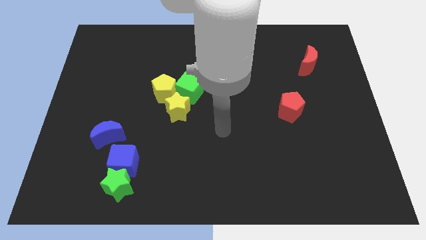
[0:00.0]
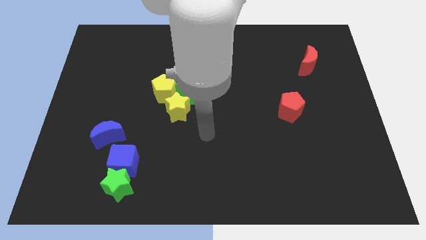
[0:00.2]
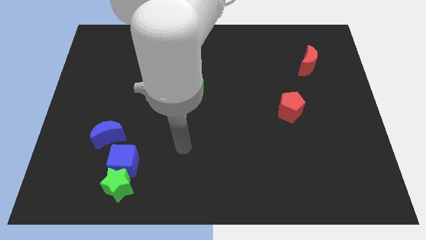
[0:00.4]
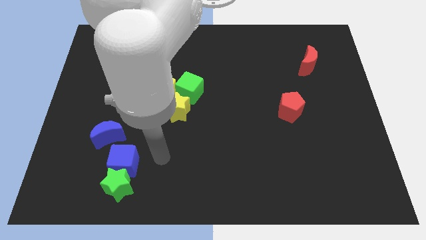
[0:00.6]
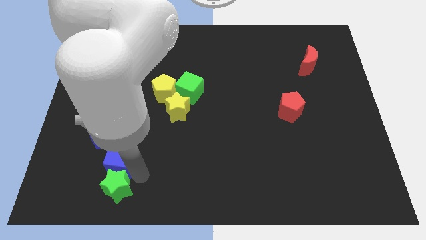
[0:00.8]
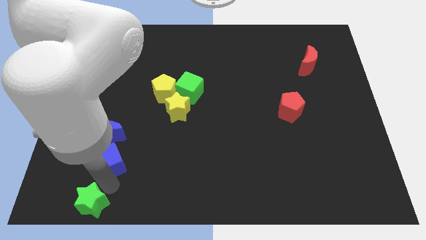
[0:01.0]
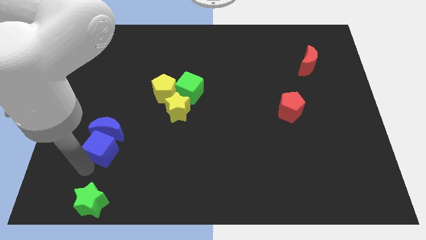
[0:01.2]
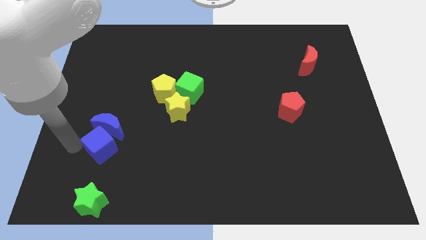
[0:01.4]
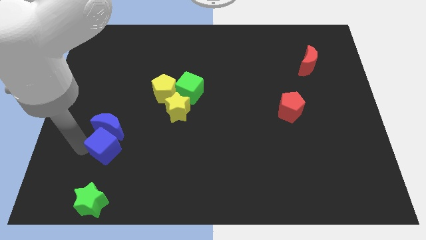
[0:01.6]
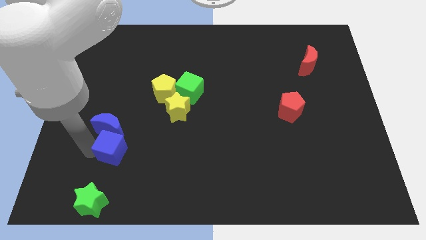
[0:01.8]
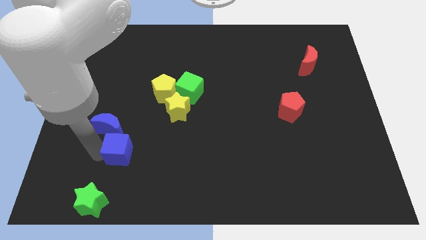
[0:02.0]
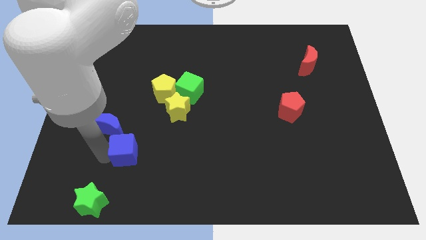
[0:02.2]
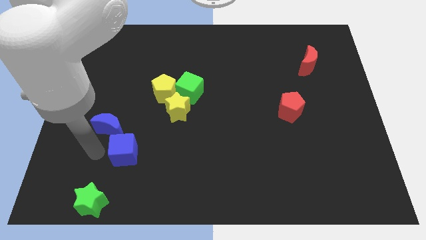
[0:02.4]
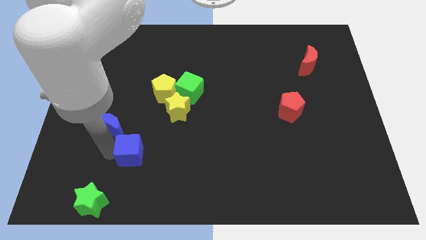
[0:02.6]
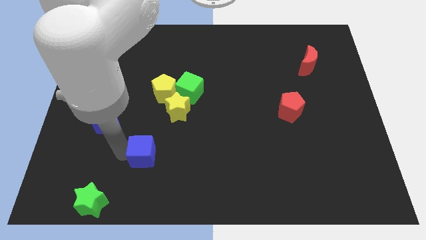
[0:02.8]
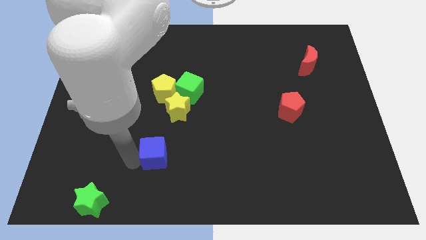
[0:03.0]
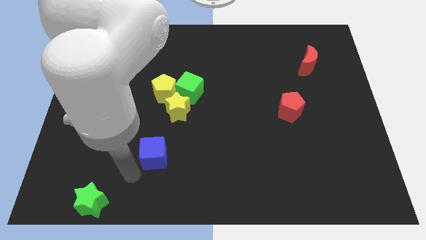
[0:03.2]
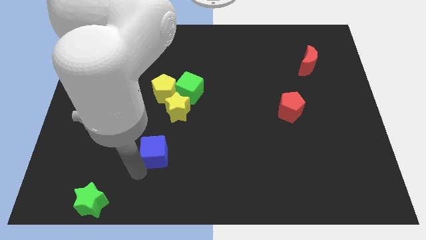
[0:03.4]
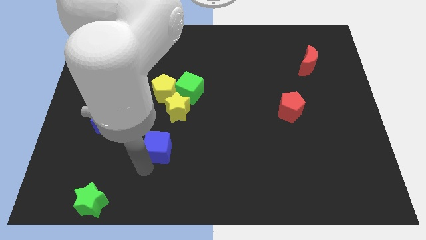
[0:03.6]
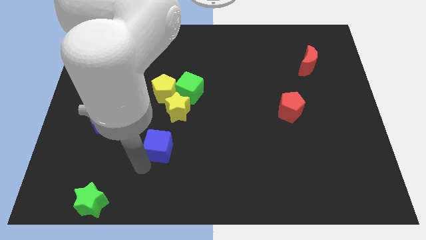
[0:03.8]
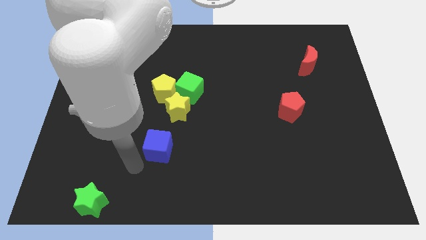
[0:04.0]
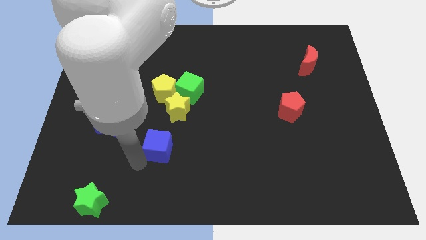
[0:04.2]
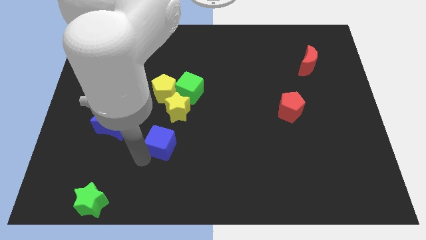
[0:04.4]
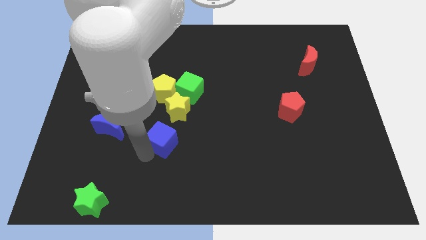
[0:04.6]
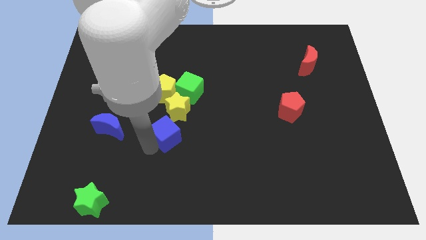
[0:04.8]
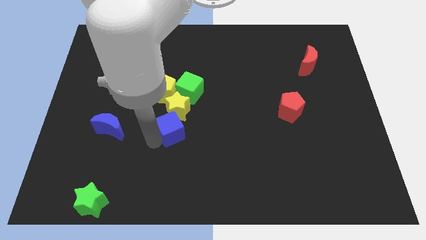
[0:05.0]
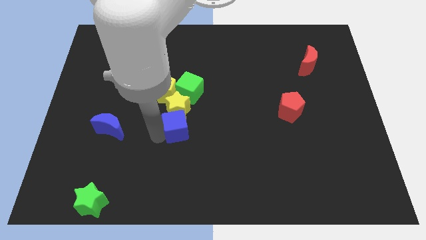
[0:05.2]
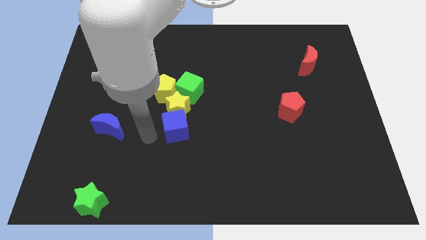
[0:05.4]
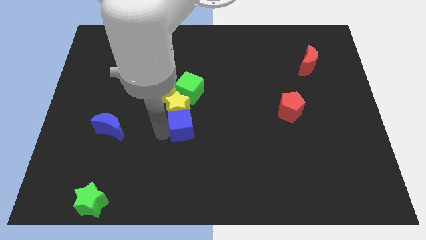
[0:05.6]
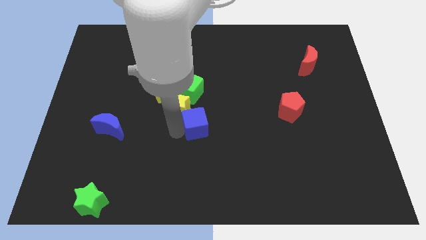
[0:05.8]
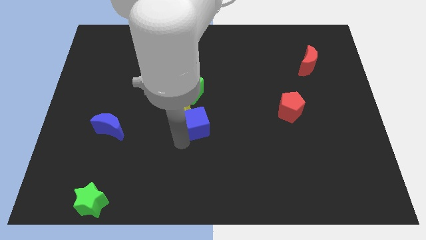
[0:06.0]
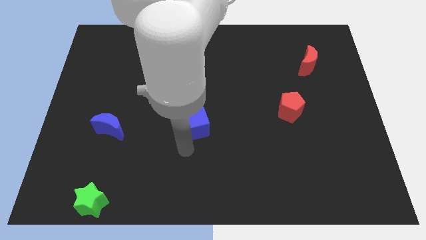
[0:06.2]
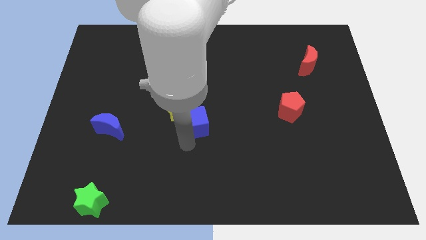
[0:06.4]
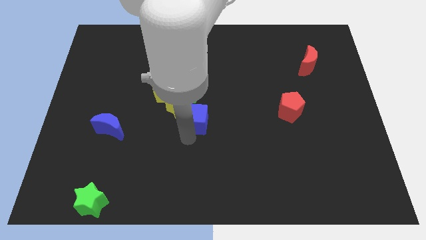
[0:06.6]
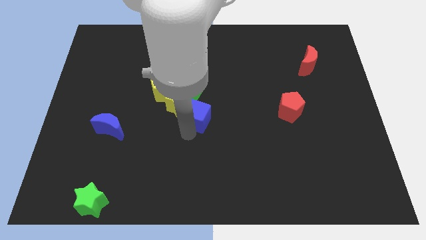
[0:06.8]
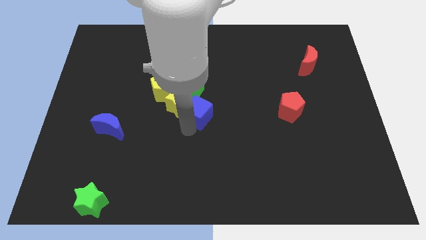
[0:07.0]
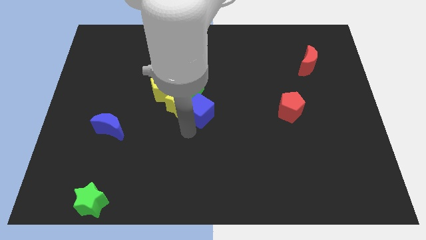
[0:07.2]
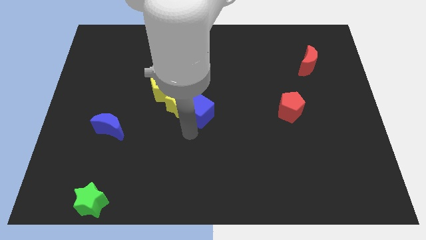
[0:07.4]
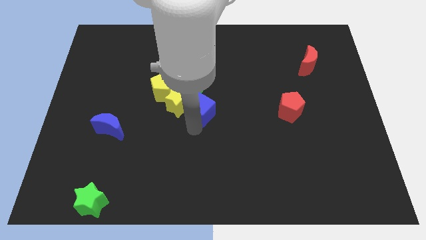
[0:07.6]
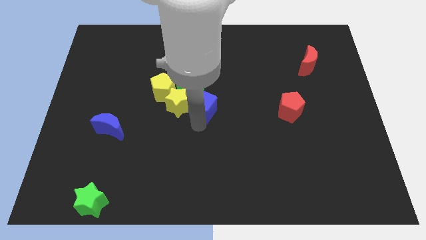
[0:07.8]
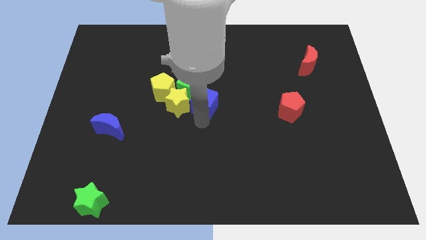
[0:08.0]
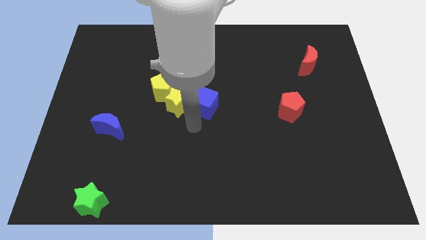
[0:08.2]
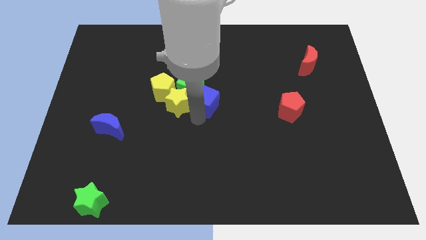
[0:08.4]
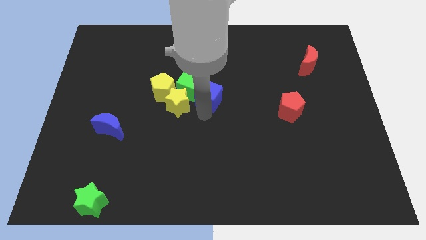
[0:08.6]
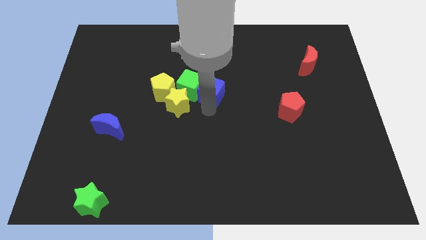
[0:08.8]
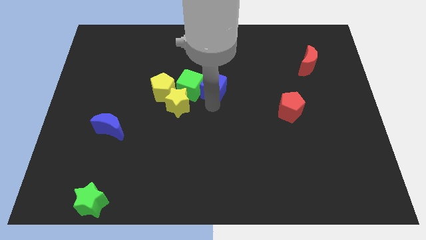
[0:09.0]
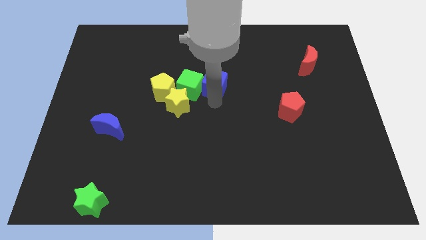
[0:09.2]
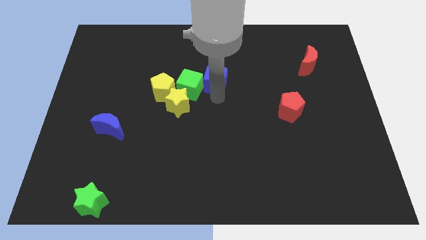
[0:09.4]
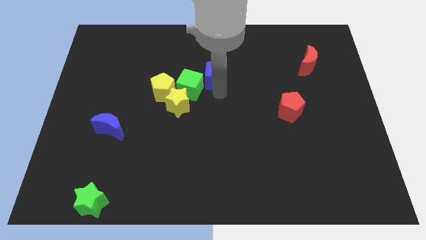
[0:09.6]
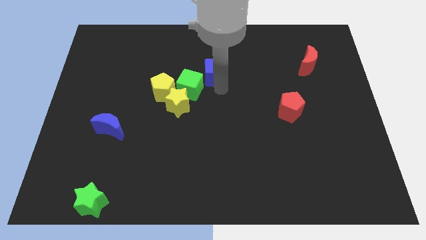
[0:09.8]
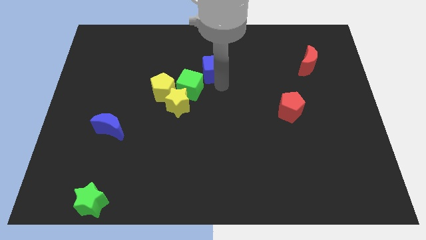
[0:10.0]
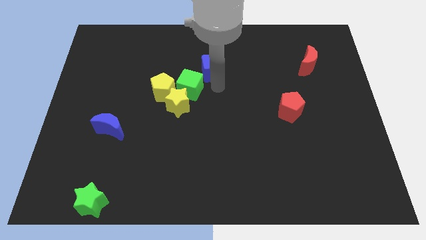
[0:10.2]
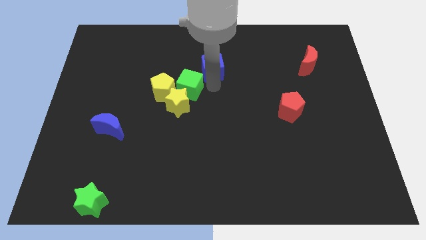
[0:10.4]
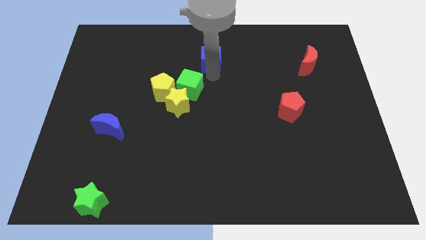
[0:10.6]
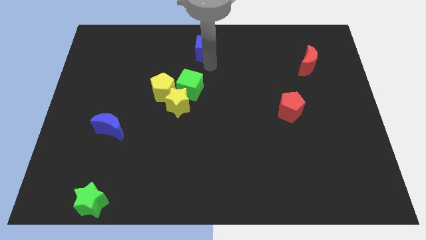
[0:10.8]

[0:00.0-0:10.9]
move the blue cube to the towards your base

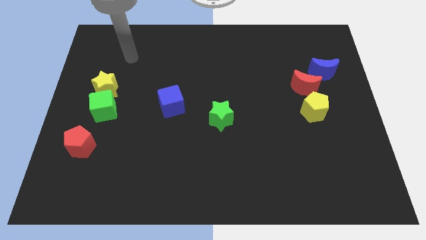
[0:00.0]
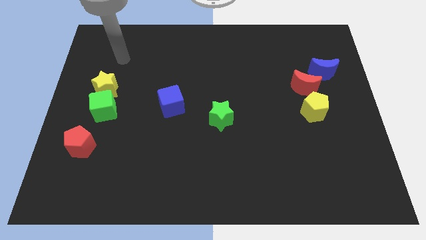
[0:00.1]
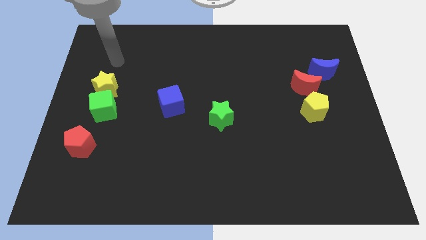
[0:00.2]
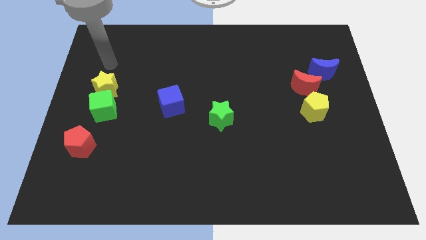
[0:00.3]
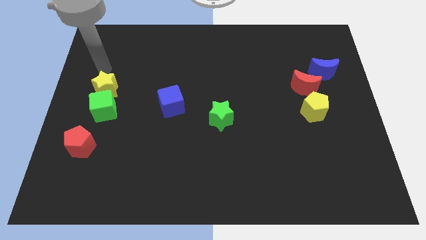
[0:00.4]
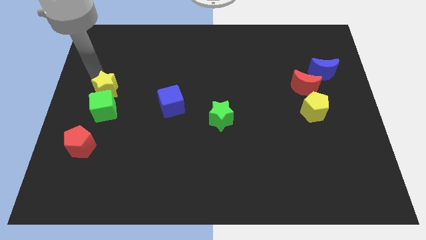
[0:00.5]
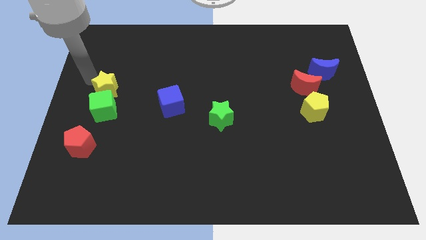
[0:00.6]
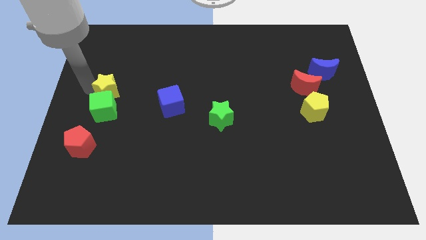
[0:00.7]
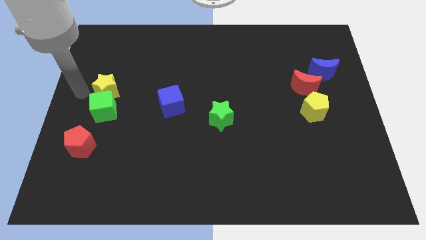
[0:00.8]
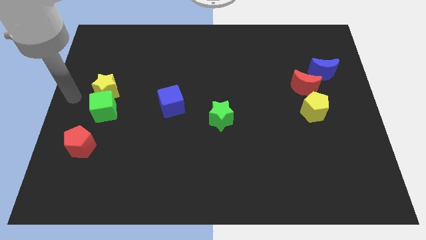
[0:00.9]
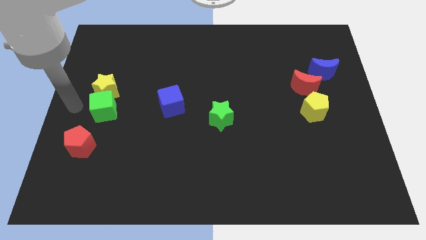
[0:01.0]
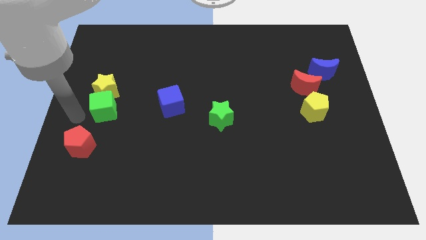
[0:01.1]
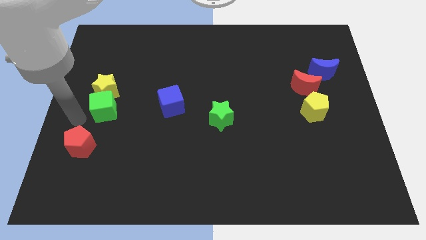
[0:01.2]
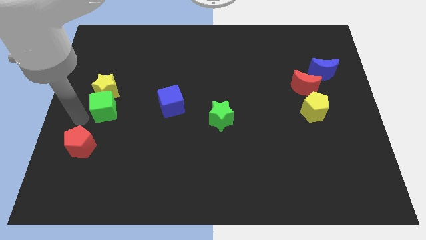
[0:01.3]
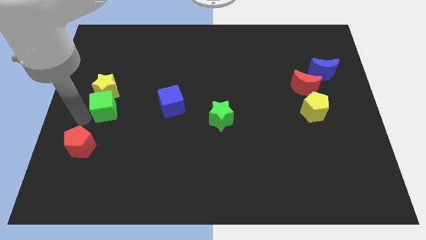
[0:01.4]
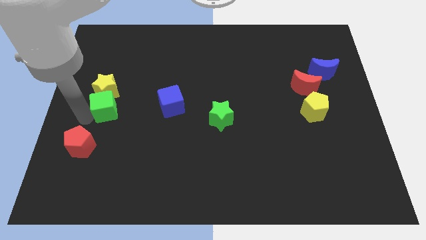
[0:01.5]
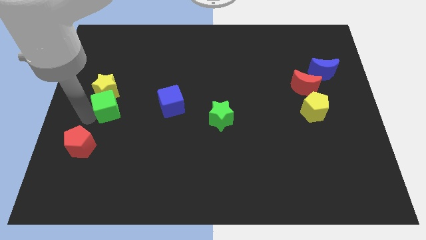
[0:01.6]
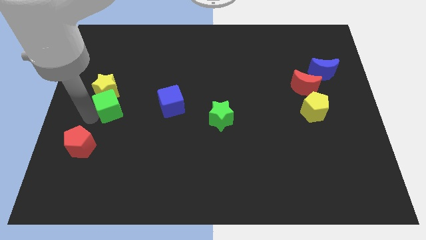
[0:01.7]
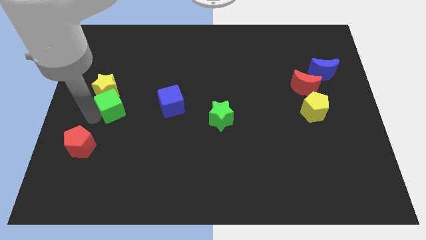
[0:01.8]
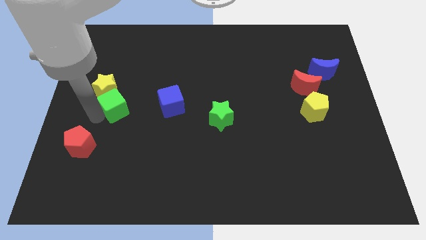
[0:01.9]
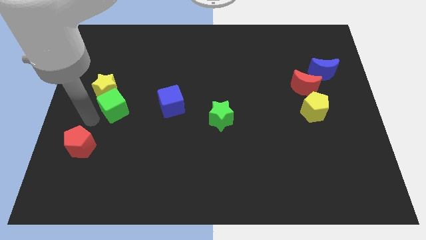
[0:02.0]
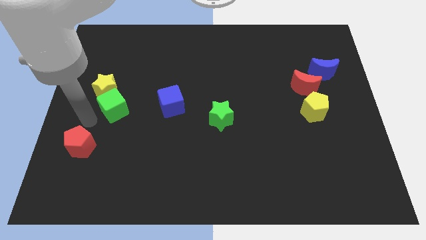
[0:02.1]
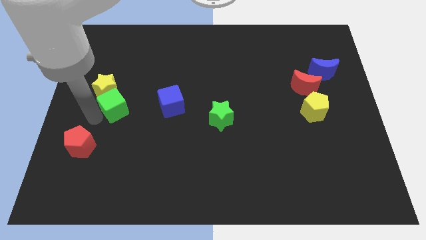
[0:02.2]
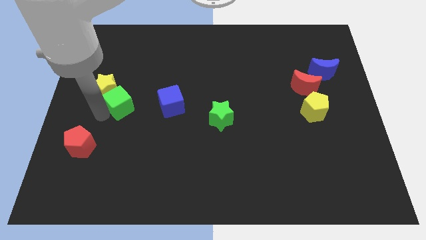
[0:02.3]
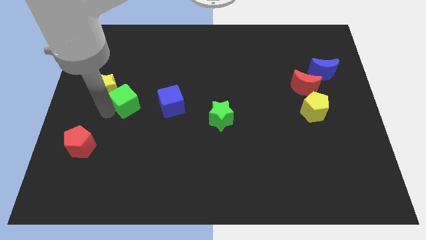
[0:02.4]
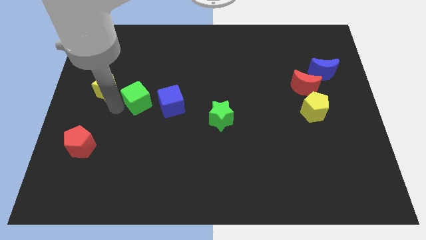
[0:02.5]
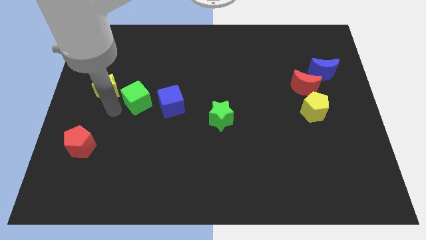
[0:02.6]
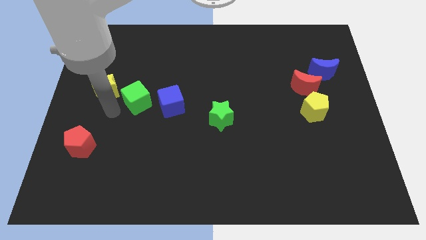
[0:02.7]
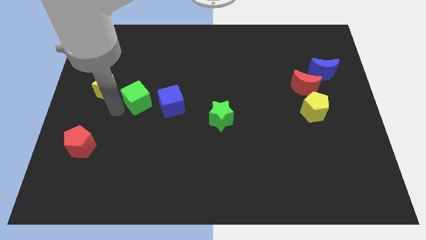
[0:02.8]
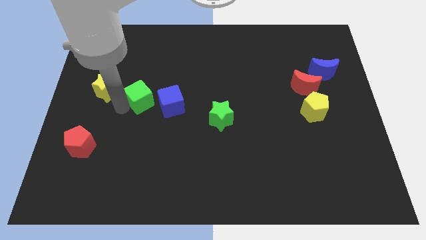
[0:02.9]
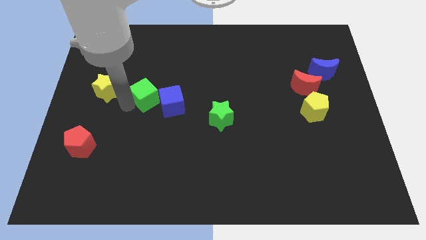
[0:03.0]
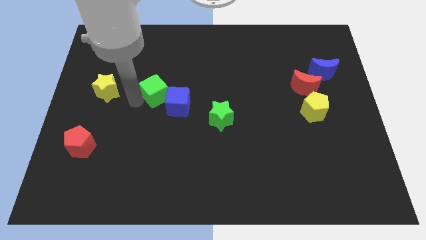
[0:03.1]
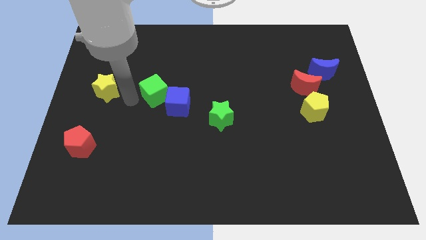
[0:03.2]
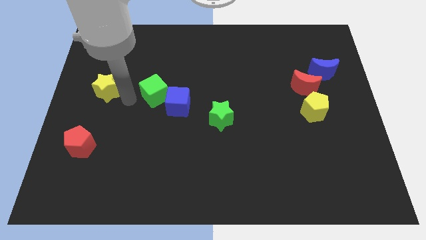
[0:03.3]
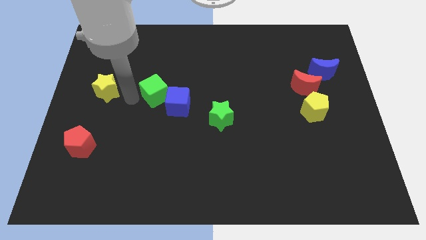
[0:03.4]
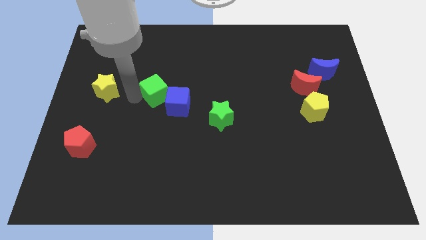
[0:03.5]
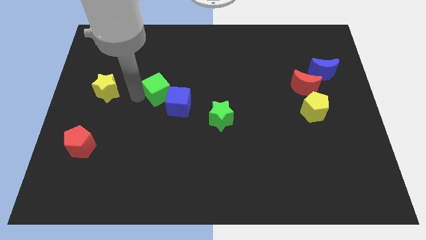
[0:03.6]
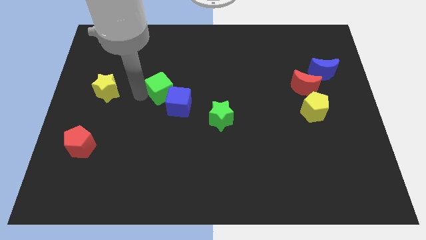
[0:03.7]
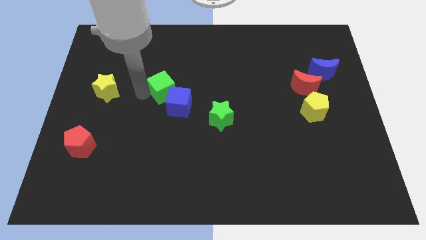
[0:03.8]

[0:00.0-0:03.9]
slide the green cube to the center
